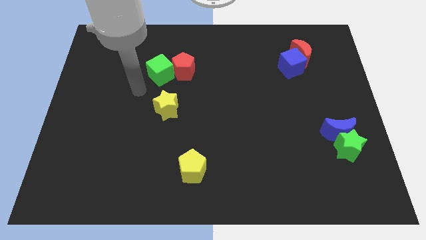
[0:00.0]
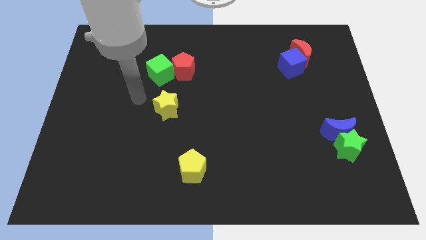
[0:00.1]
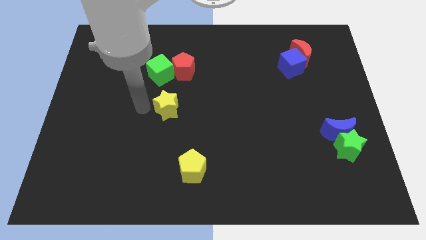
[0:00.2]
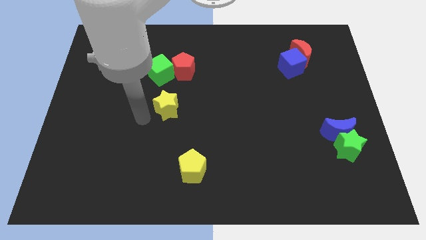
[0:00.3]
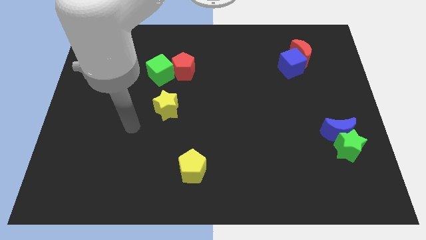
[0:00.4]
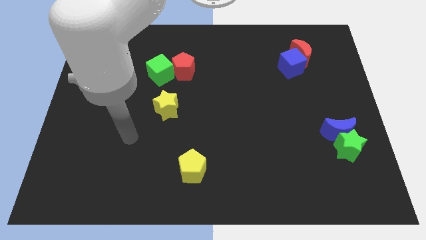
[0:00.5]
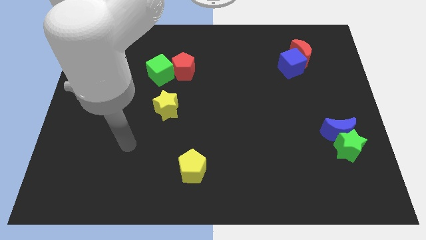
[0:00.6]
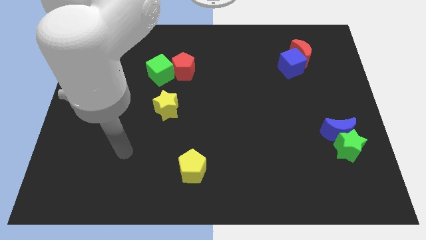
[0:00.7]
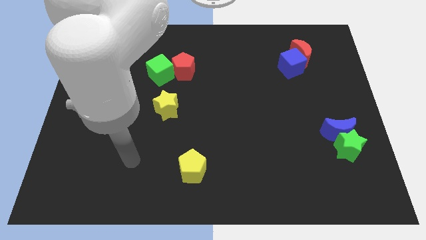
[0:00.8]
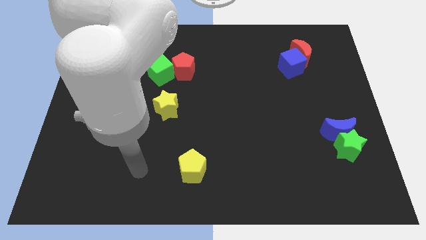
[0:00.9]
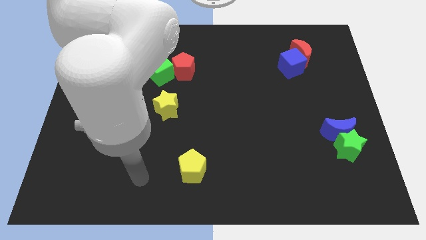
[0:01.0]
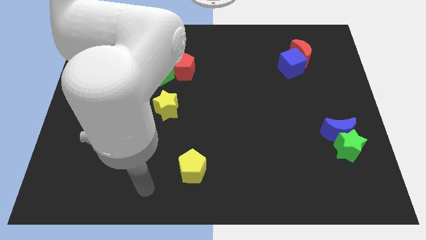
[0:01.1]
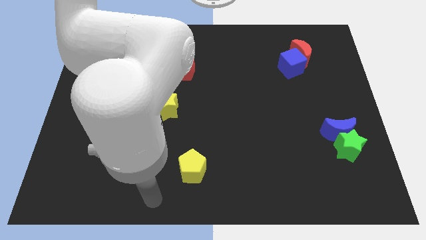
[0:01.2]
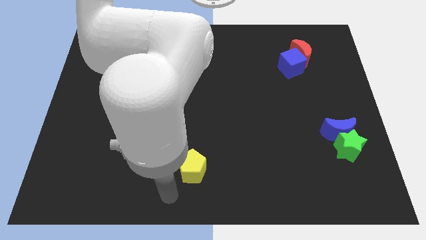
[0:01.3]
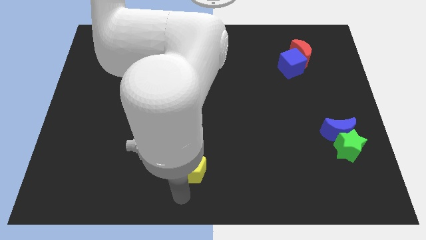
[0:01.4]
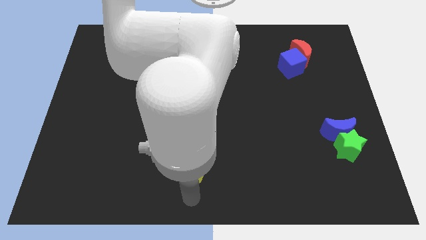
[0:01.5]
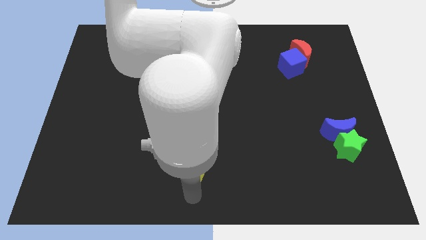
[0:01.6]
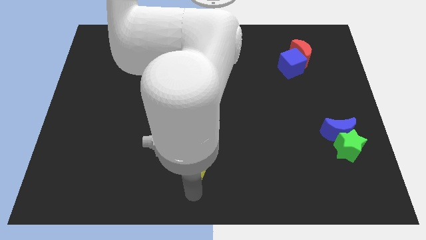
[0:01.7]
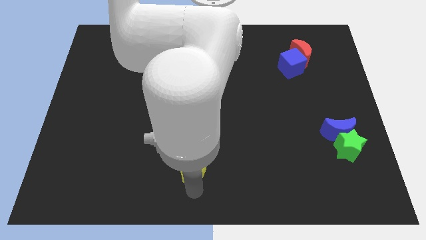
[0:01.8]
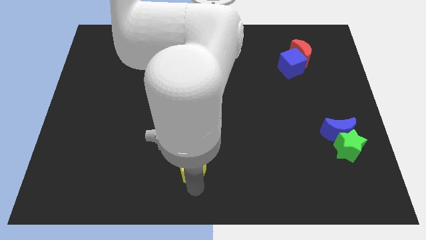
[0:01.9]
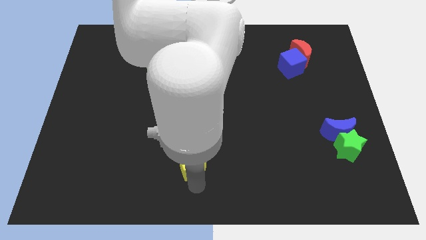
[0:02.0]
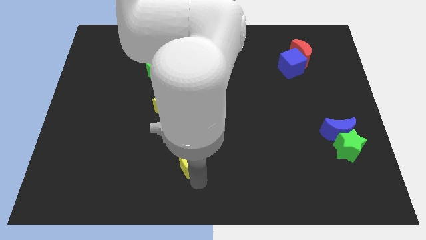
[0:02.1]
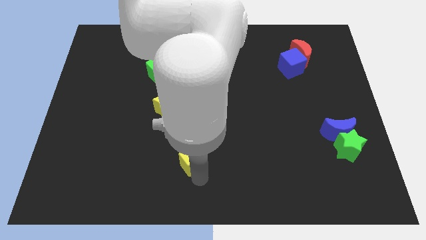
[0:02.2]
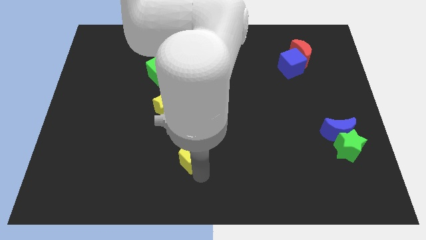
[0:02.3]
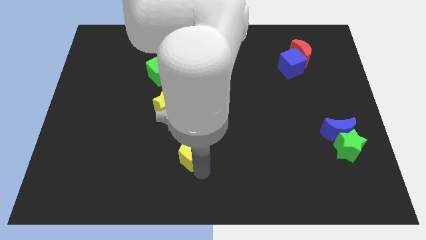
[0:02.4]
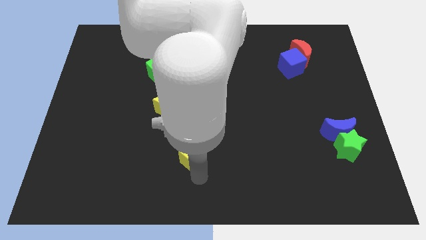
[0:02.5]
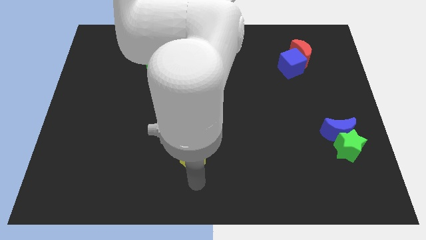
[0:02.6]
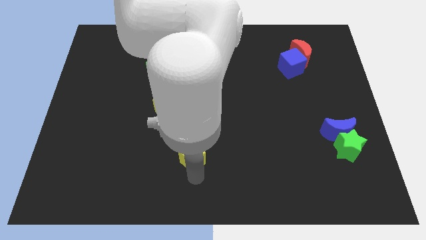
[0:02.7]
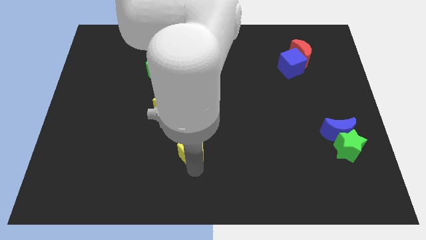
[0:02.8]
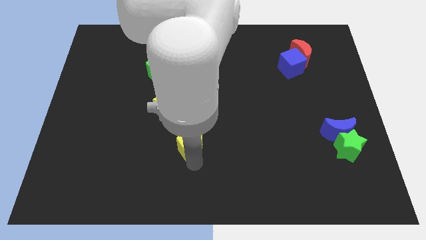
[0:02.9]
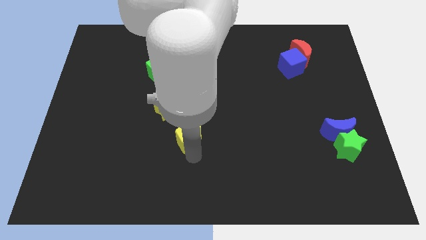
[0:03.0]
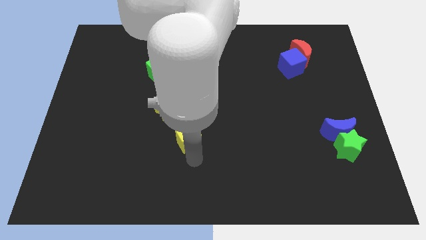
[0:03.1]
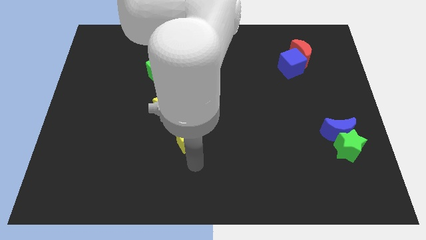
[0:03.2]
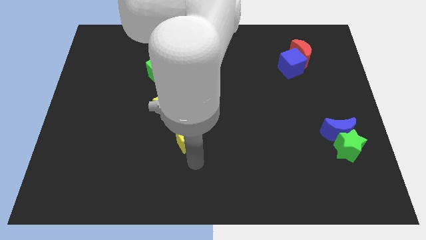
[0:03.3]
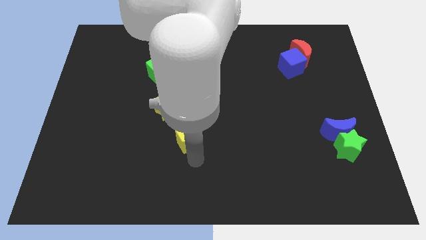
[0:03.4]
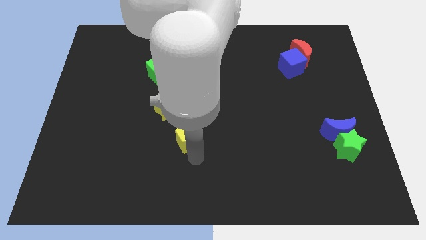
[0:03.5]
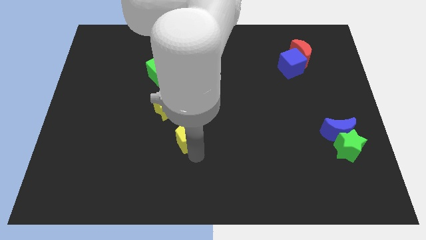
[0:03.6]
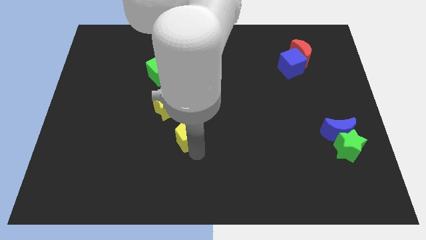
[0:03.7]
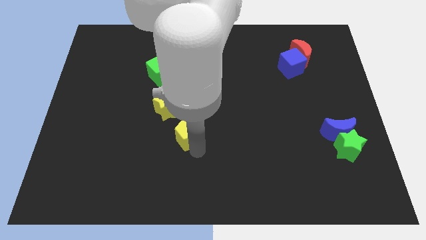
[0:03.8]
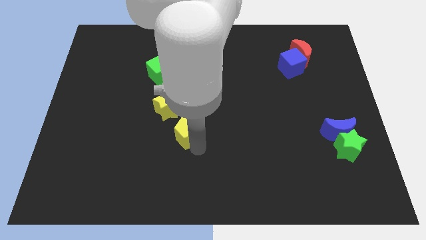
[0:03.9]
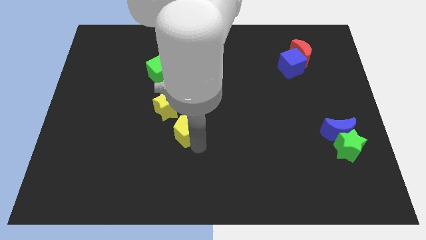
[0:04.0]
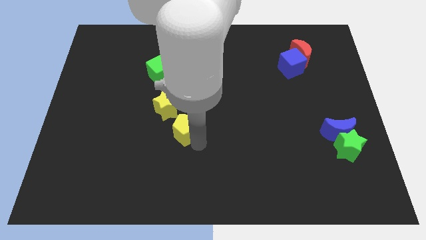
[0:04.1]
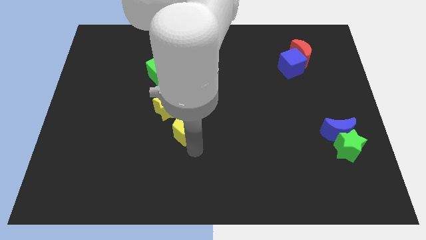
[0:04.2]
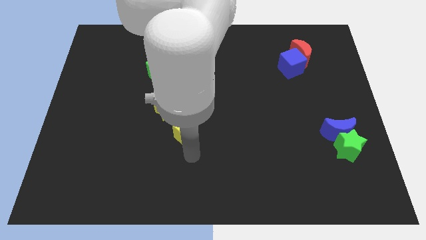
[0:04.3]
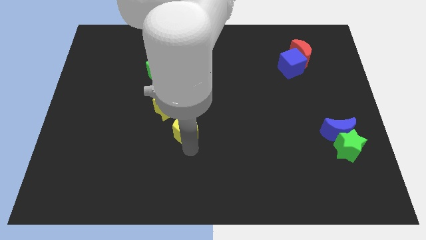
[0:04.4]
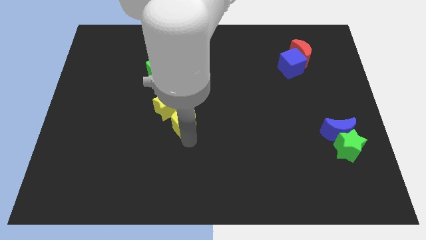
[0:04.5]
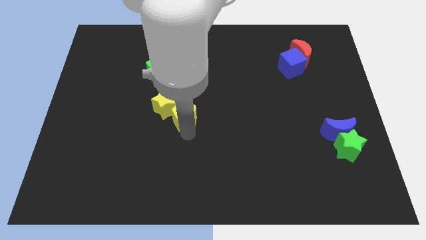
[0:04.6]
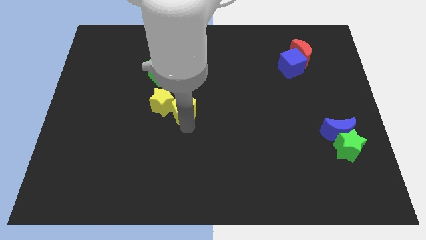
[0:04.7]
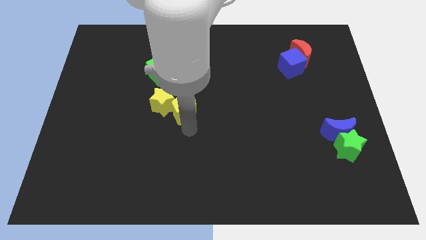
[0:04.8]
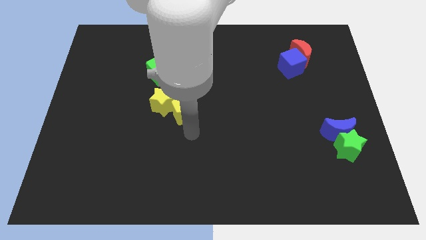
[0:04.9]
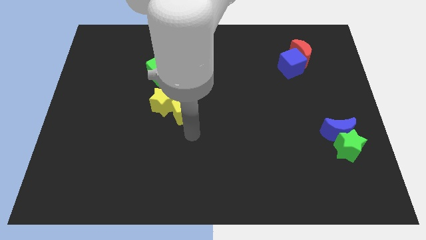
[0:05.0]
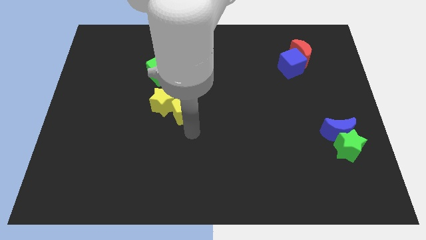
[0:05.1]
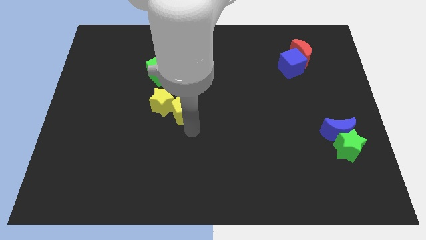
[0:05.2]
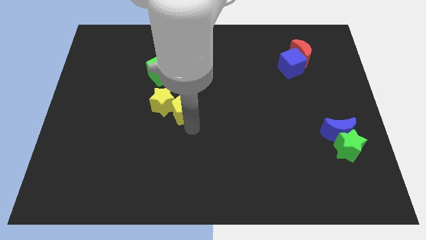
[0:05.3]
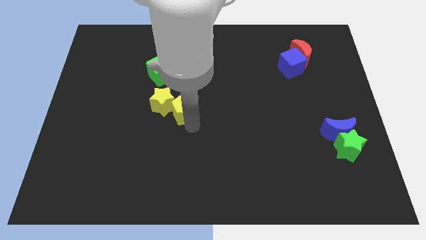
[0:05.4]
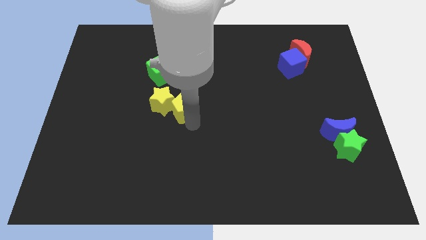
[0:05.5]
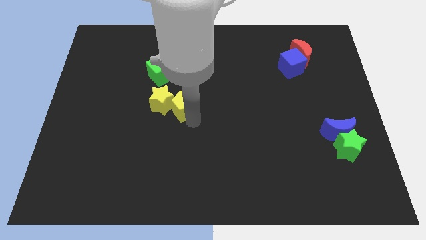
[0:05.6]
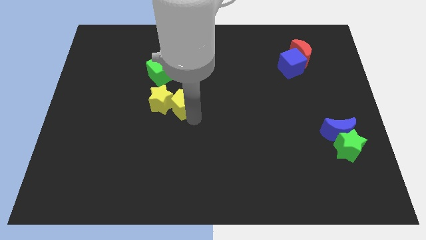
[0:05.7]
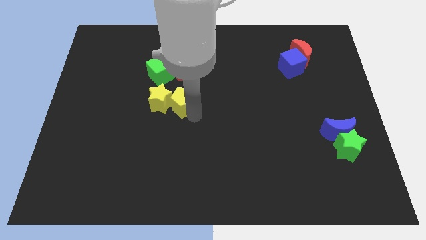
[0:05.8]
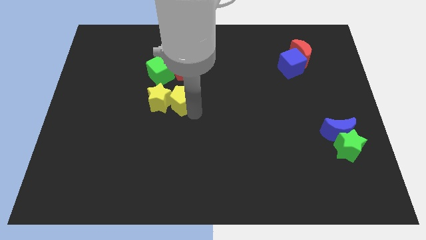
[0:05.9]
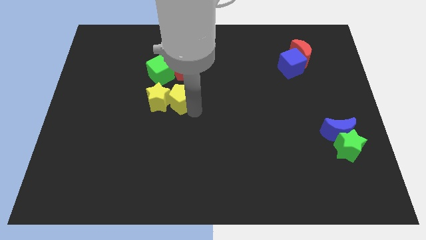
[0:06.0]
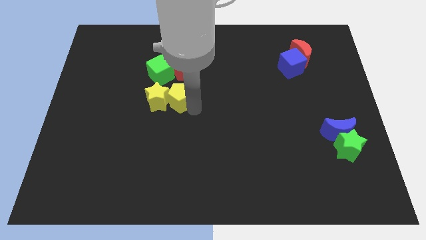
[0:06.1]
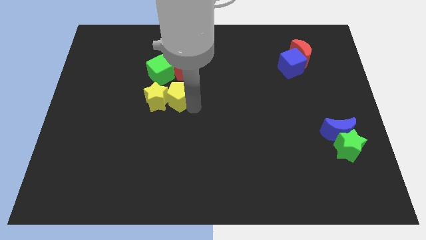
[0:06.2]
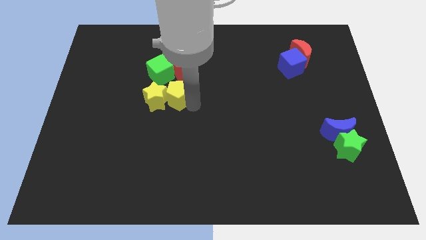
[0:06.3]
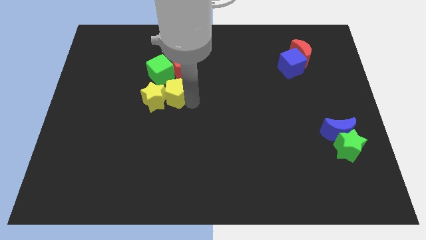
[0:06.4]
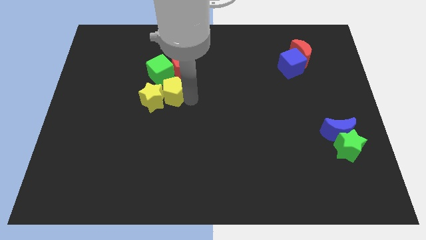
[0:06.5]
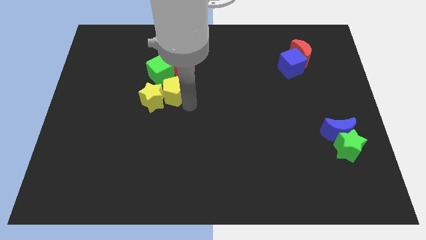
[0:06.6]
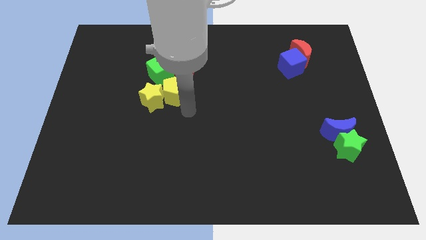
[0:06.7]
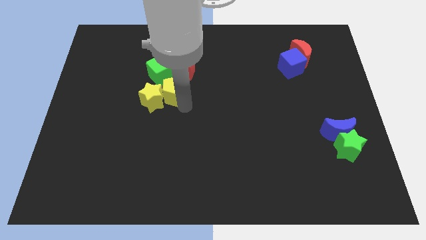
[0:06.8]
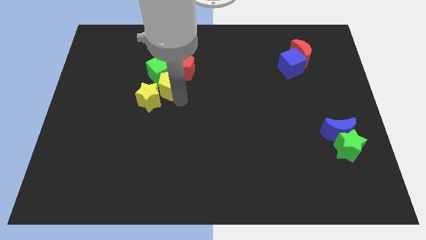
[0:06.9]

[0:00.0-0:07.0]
move the yellow pentagon towards the green cube
